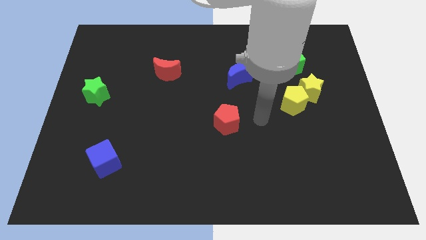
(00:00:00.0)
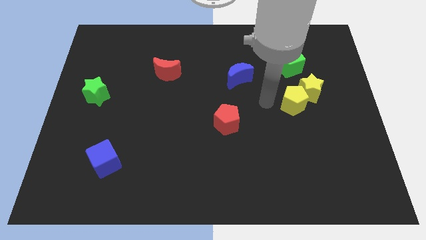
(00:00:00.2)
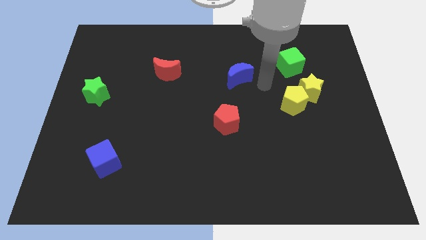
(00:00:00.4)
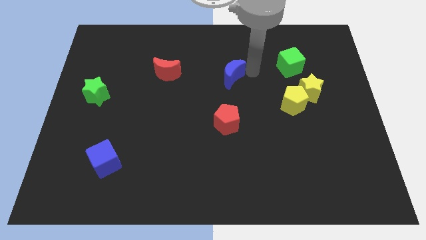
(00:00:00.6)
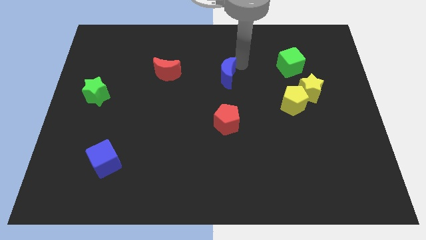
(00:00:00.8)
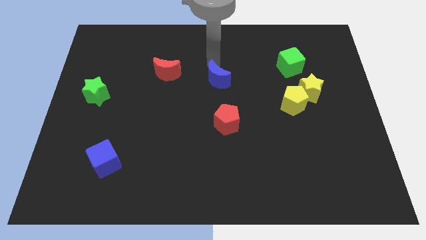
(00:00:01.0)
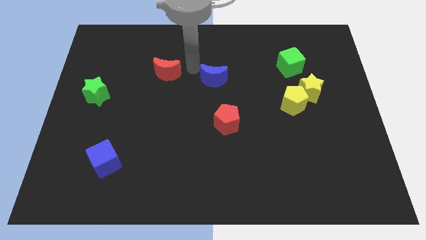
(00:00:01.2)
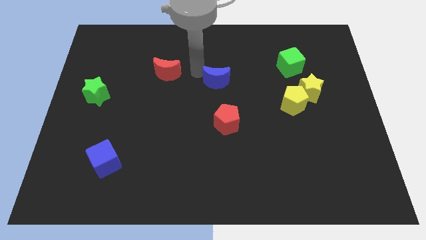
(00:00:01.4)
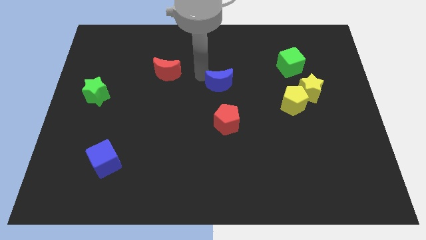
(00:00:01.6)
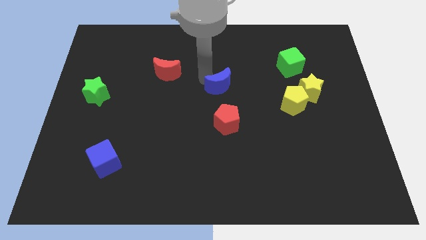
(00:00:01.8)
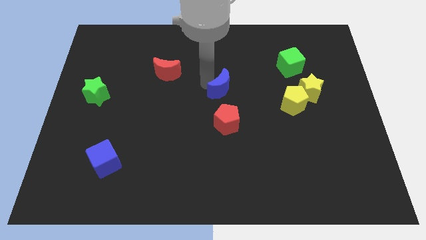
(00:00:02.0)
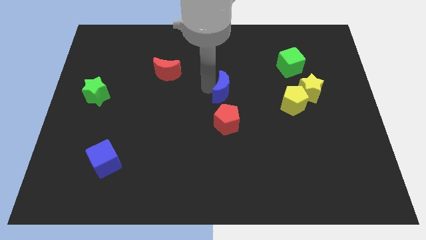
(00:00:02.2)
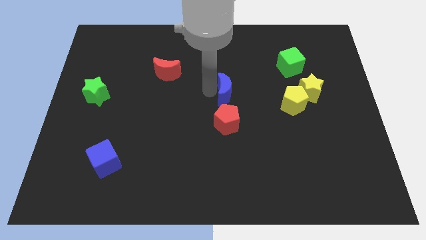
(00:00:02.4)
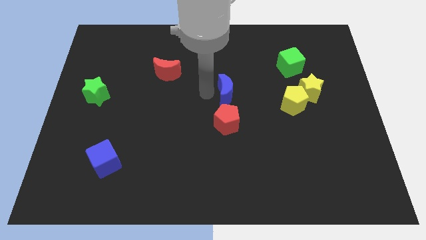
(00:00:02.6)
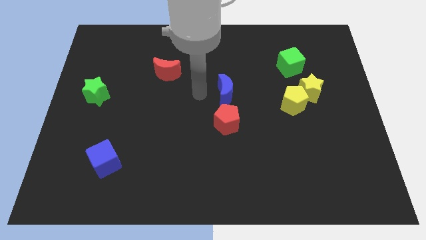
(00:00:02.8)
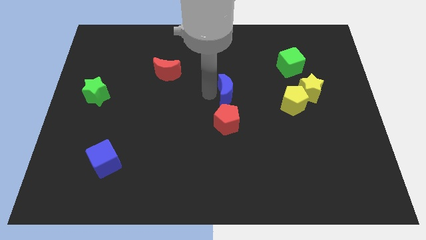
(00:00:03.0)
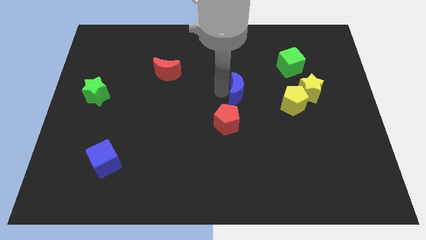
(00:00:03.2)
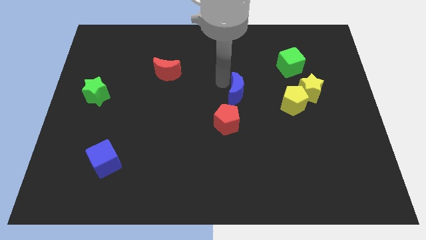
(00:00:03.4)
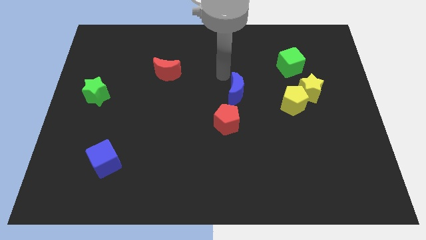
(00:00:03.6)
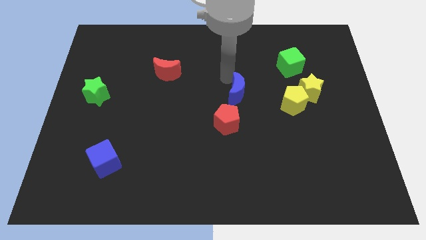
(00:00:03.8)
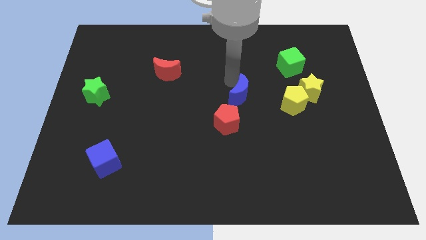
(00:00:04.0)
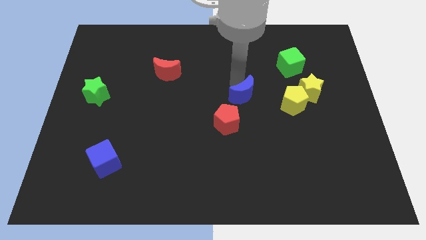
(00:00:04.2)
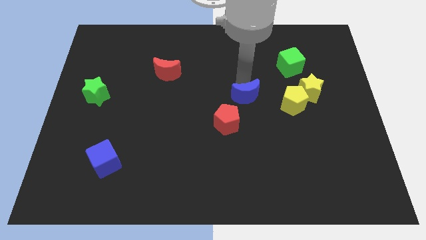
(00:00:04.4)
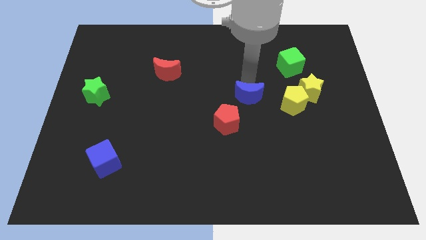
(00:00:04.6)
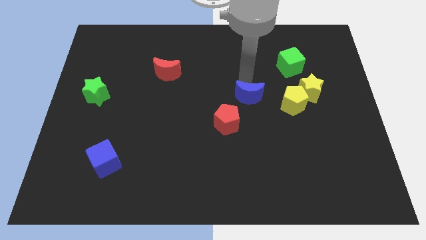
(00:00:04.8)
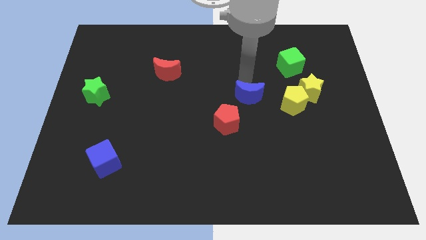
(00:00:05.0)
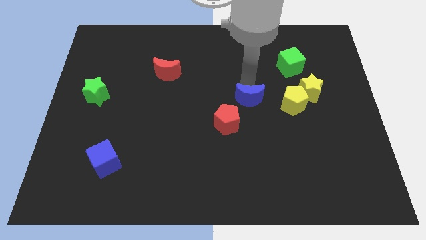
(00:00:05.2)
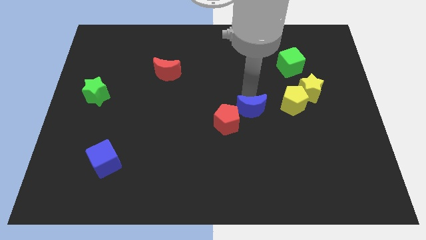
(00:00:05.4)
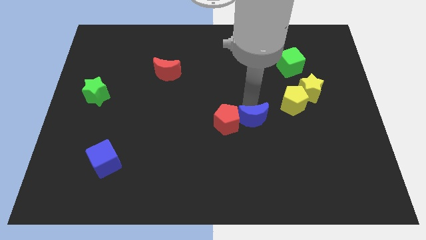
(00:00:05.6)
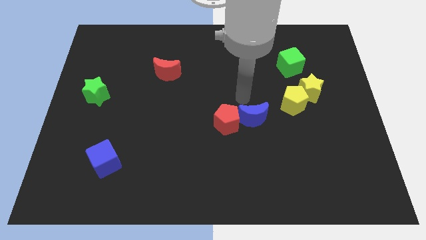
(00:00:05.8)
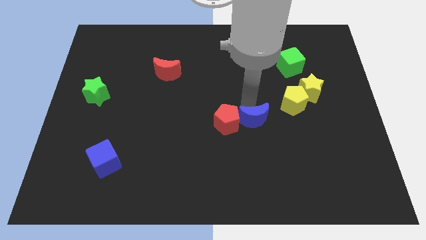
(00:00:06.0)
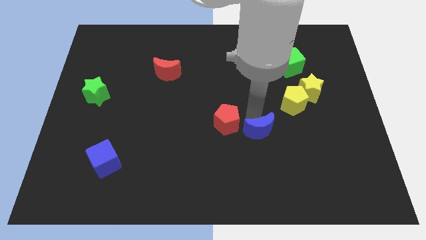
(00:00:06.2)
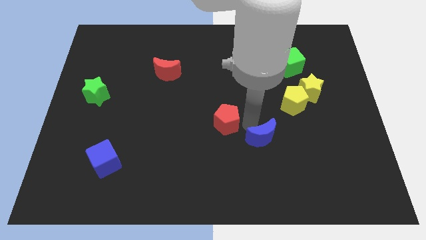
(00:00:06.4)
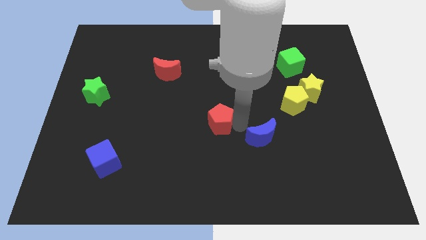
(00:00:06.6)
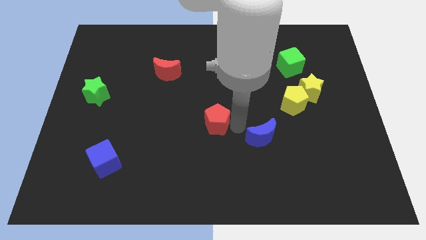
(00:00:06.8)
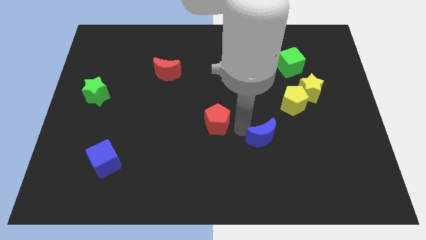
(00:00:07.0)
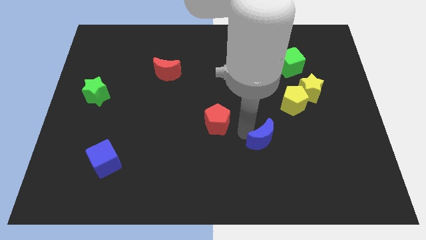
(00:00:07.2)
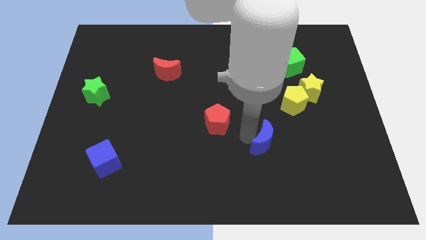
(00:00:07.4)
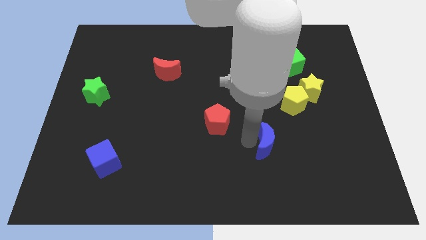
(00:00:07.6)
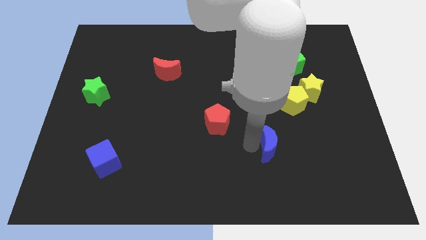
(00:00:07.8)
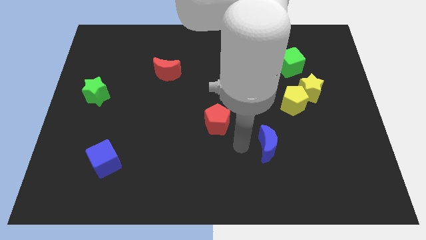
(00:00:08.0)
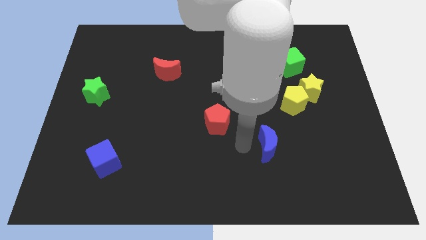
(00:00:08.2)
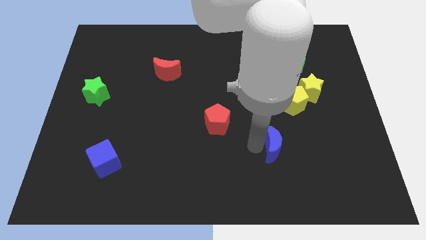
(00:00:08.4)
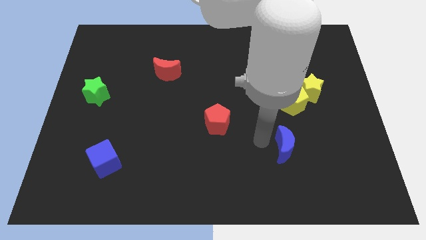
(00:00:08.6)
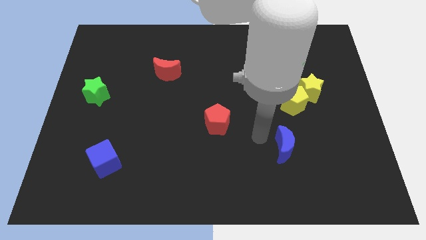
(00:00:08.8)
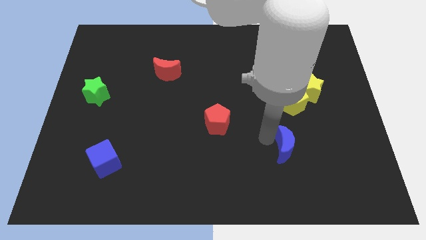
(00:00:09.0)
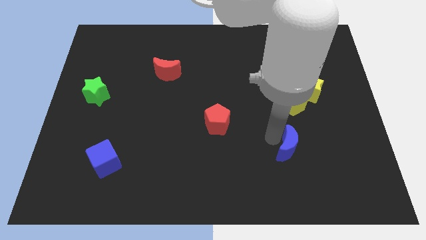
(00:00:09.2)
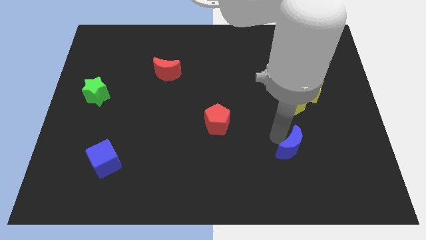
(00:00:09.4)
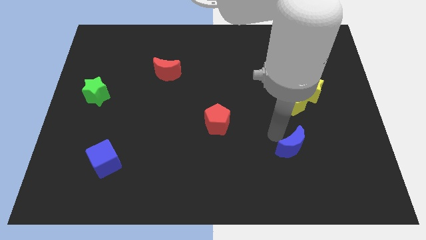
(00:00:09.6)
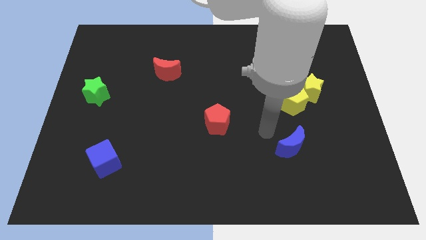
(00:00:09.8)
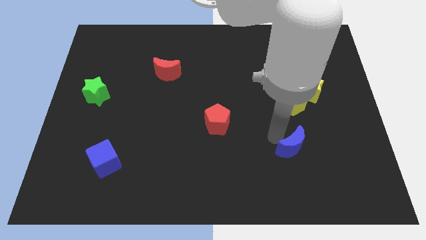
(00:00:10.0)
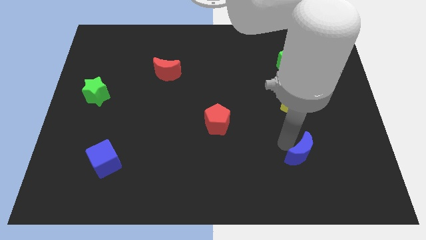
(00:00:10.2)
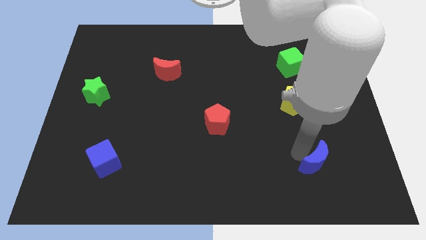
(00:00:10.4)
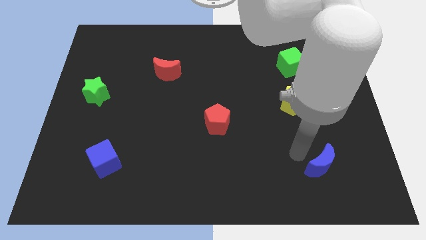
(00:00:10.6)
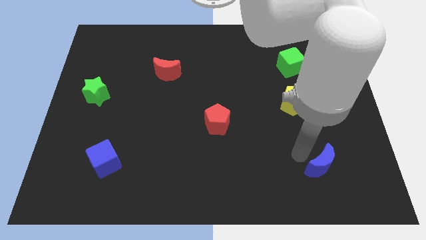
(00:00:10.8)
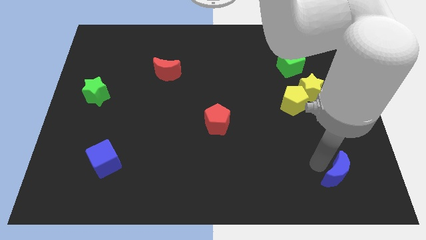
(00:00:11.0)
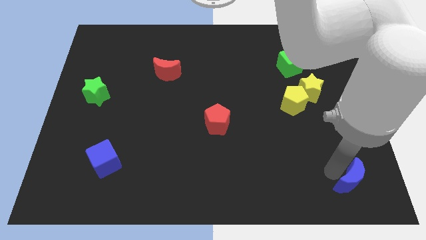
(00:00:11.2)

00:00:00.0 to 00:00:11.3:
move the blue moon to the bottom right of the board

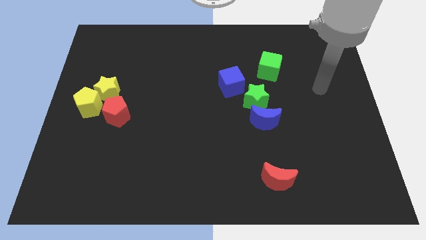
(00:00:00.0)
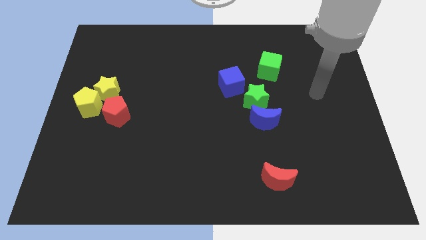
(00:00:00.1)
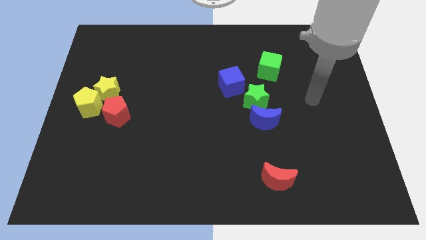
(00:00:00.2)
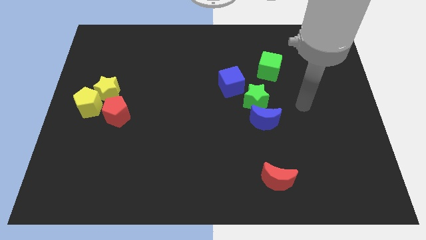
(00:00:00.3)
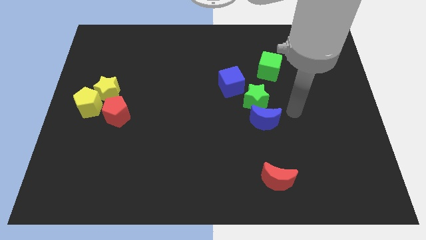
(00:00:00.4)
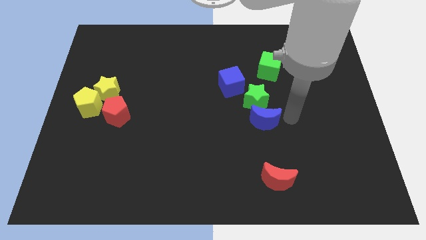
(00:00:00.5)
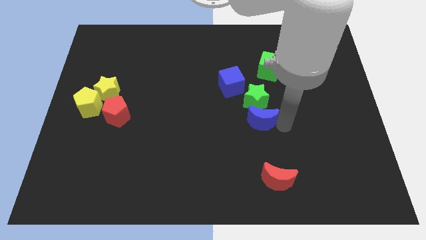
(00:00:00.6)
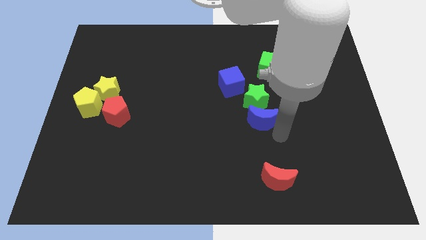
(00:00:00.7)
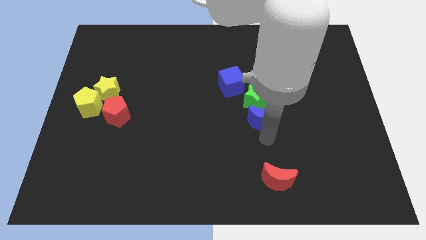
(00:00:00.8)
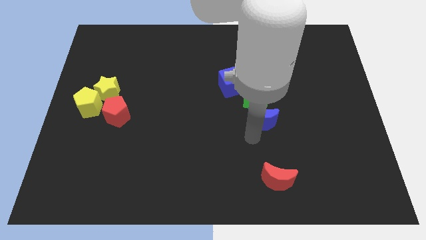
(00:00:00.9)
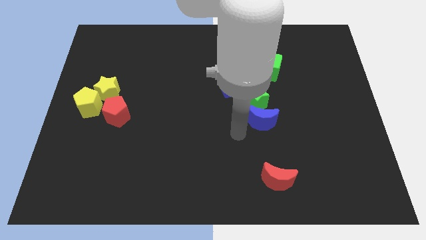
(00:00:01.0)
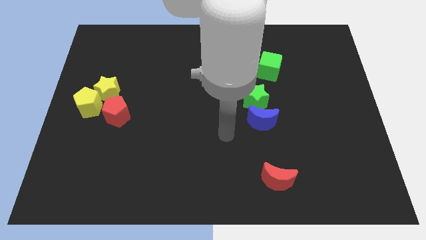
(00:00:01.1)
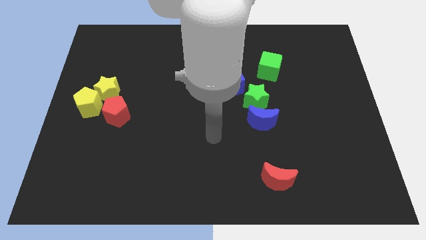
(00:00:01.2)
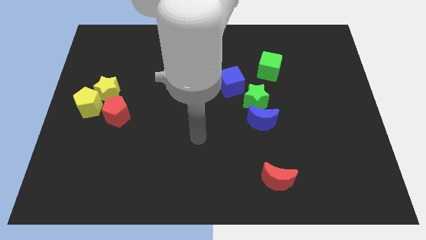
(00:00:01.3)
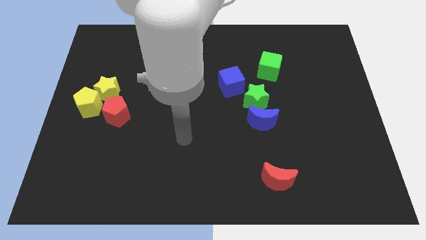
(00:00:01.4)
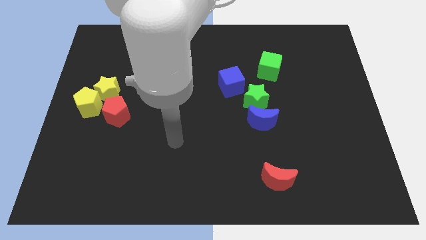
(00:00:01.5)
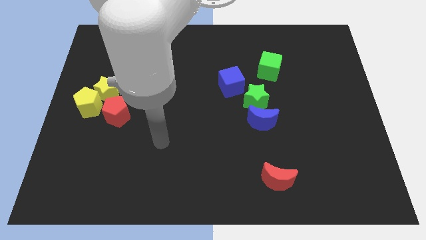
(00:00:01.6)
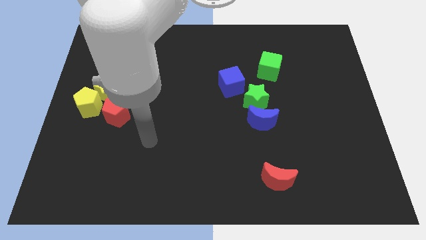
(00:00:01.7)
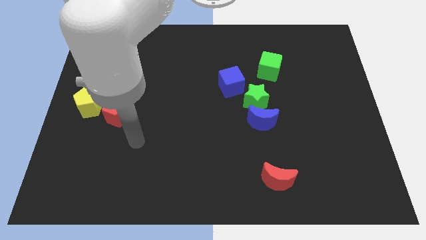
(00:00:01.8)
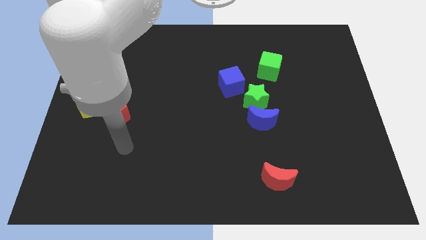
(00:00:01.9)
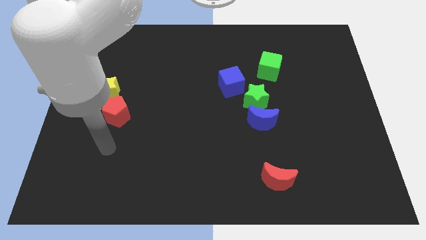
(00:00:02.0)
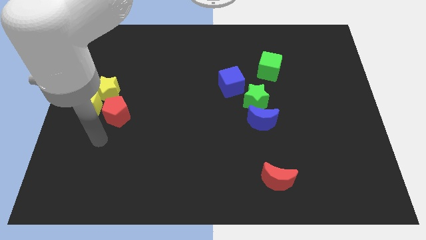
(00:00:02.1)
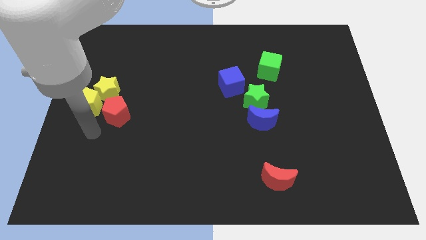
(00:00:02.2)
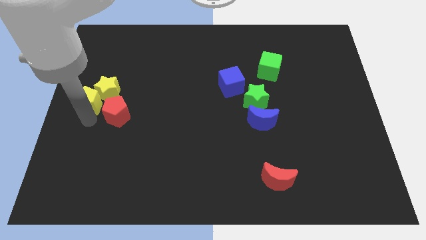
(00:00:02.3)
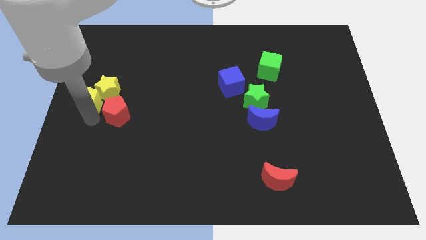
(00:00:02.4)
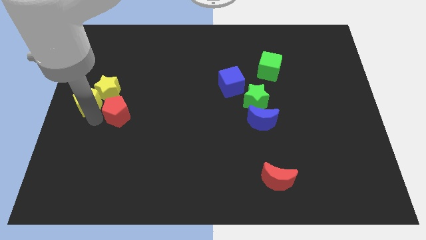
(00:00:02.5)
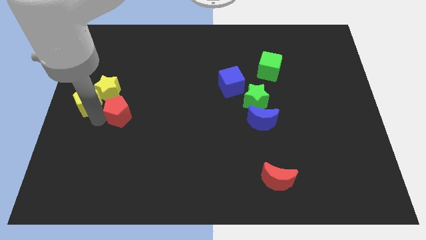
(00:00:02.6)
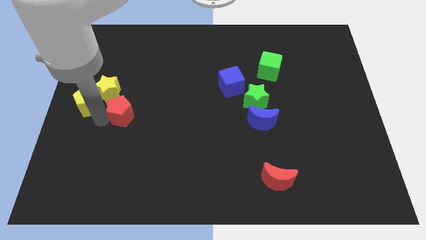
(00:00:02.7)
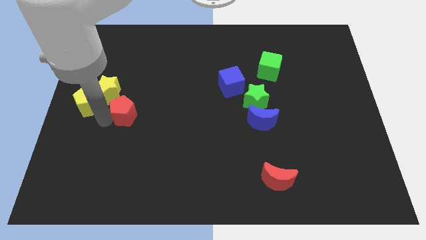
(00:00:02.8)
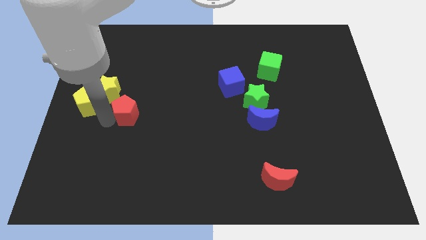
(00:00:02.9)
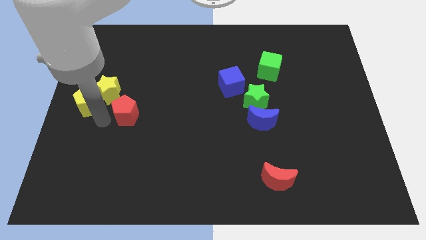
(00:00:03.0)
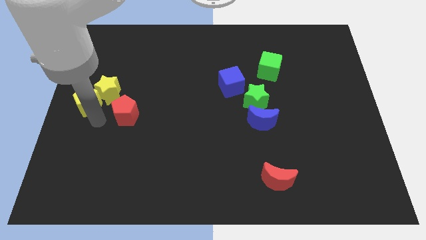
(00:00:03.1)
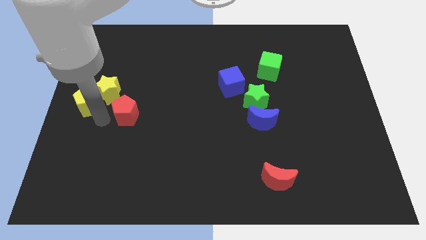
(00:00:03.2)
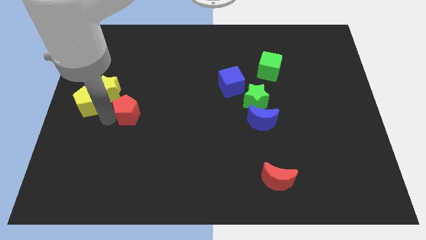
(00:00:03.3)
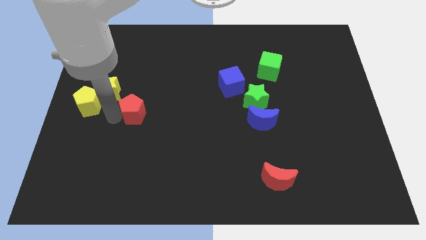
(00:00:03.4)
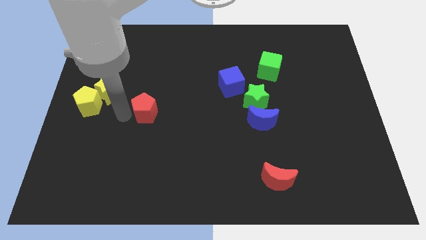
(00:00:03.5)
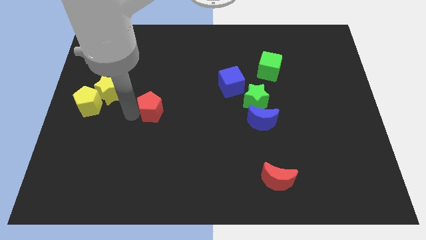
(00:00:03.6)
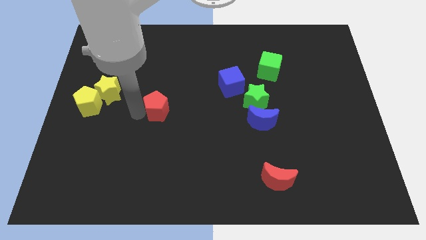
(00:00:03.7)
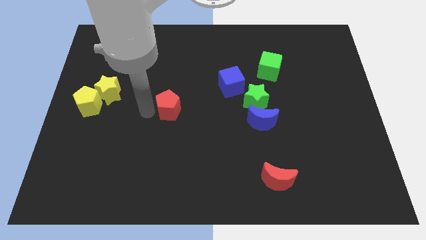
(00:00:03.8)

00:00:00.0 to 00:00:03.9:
slide the red pentagon to the middle of the board
